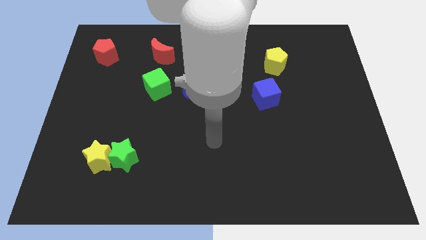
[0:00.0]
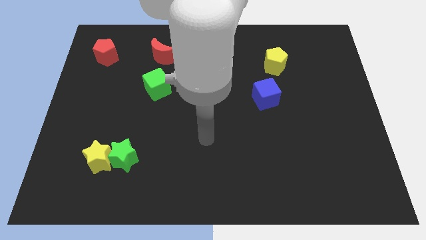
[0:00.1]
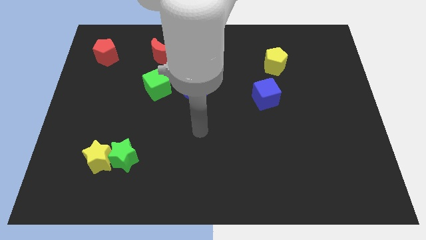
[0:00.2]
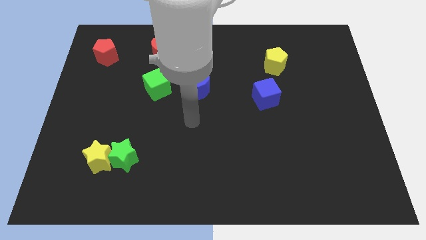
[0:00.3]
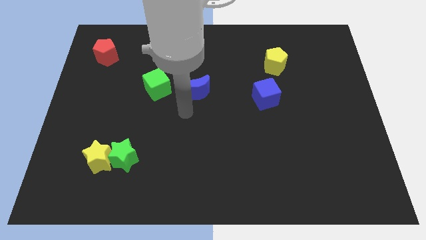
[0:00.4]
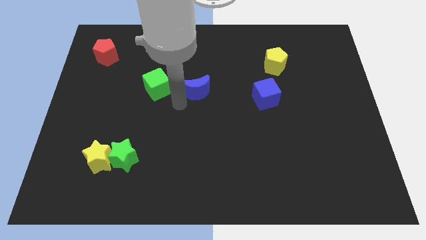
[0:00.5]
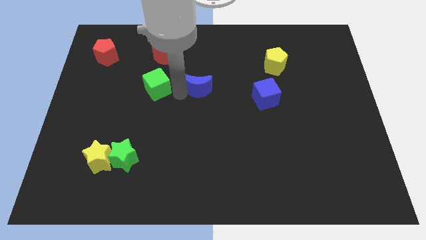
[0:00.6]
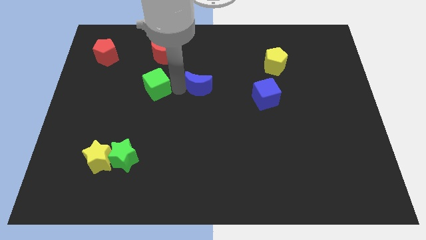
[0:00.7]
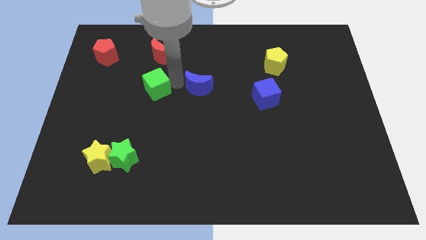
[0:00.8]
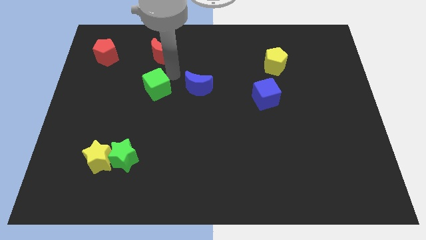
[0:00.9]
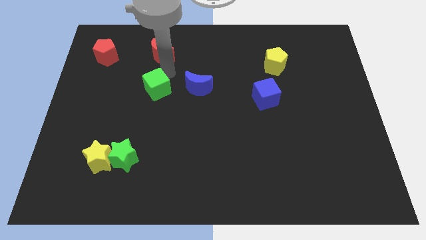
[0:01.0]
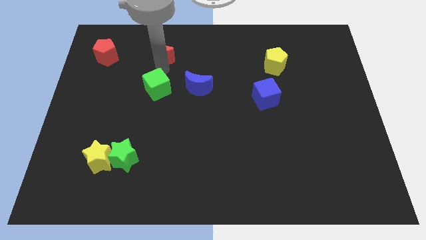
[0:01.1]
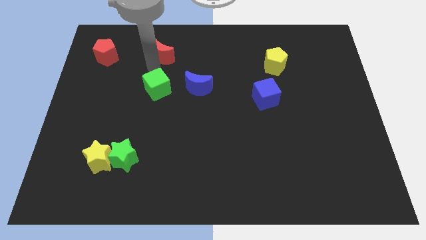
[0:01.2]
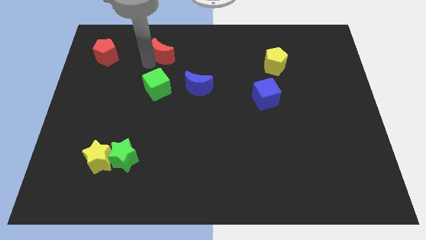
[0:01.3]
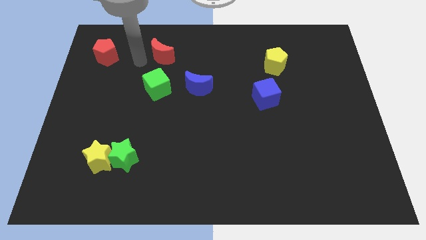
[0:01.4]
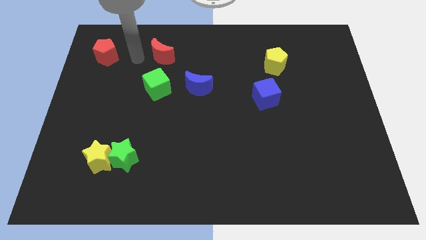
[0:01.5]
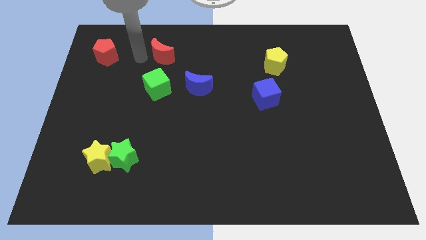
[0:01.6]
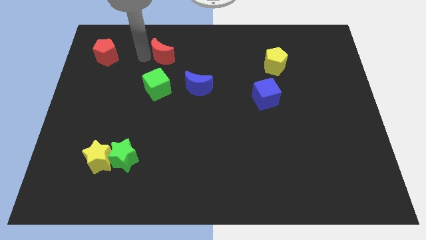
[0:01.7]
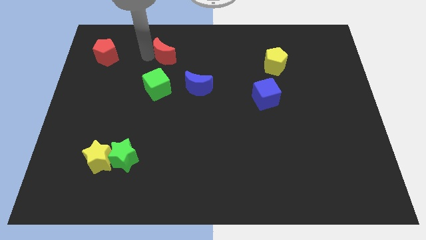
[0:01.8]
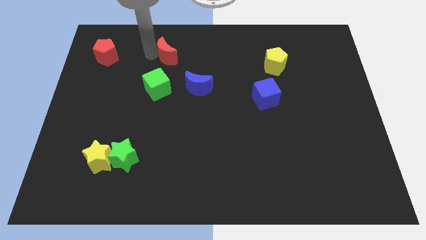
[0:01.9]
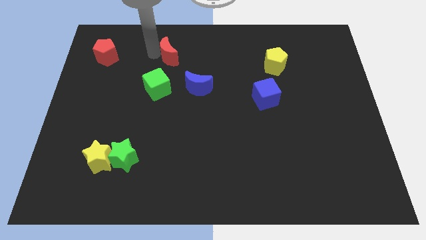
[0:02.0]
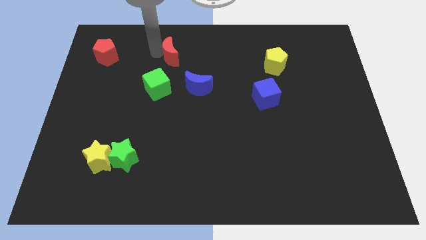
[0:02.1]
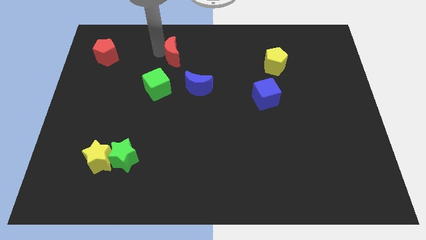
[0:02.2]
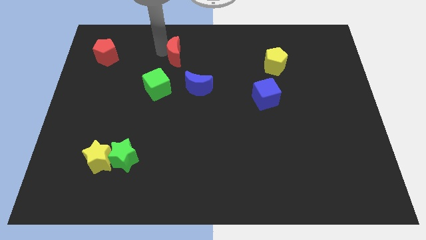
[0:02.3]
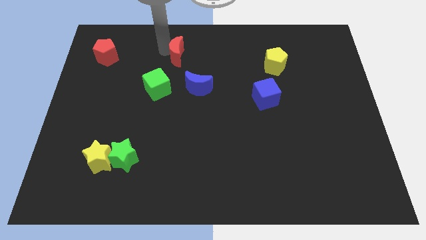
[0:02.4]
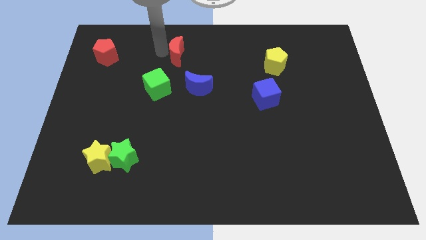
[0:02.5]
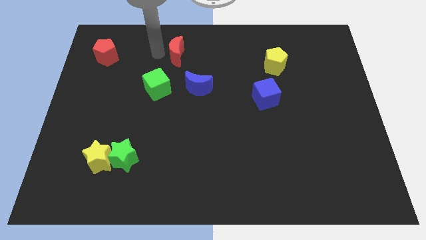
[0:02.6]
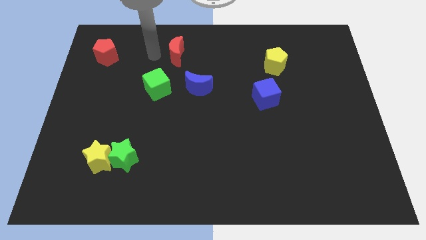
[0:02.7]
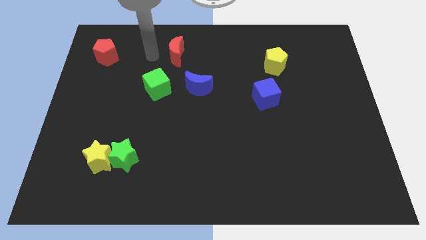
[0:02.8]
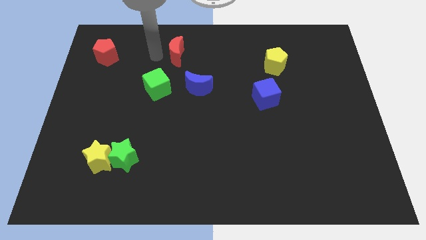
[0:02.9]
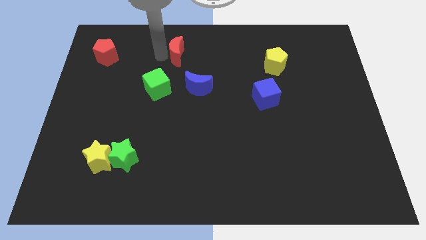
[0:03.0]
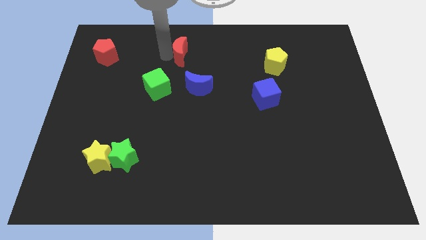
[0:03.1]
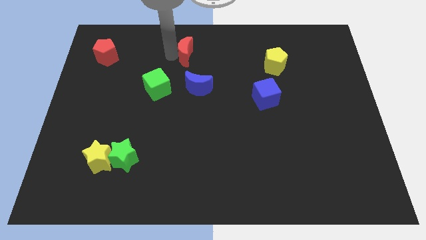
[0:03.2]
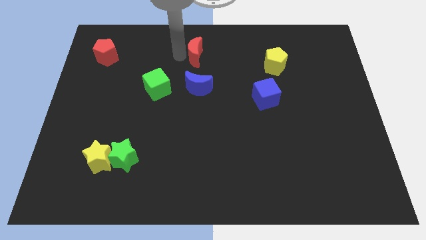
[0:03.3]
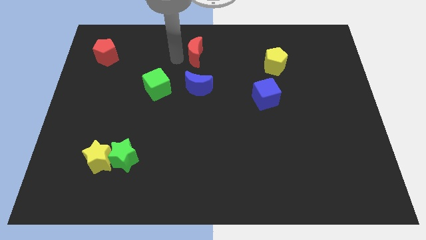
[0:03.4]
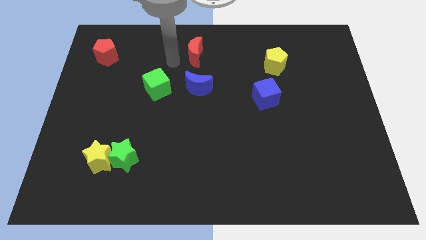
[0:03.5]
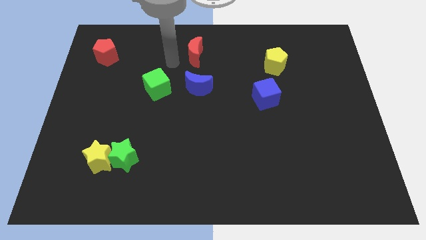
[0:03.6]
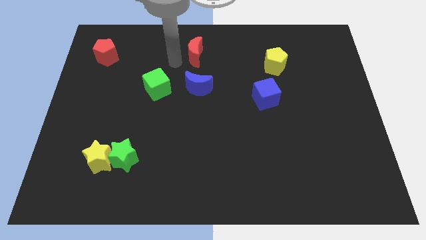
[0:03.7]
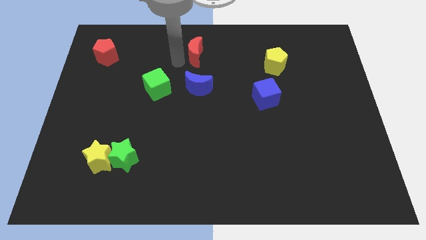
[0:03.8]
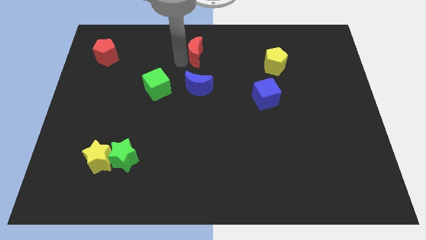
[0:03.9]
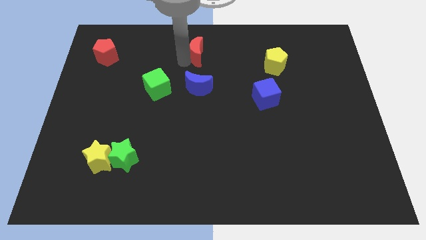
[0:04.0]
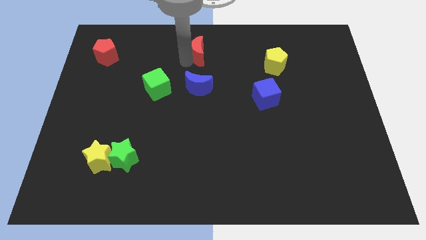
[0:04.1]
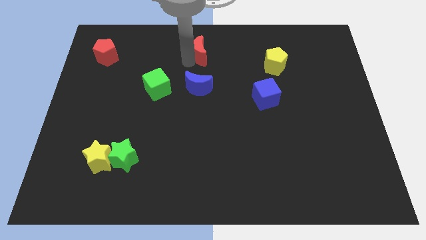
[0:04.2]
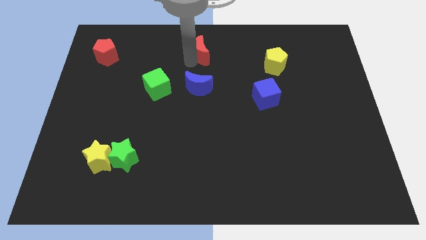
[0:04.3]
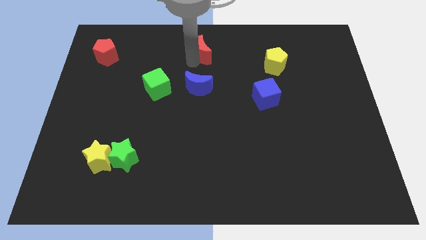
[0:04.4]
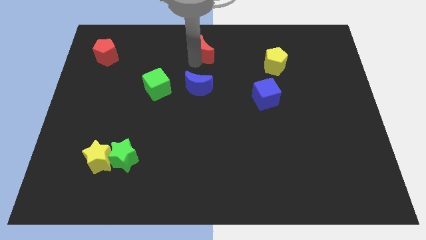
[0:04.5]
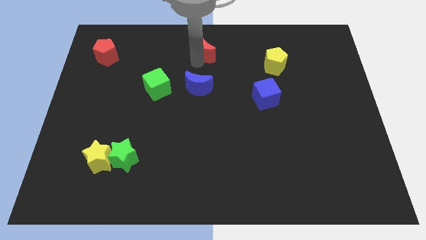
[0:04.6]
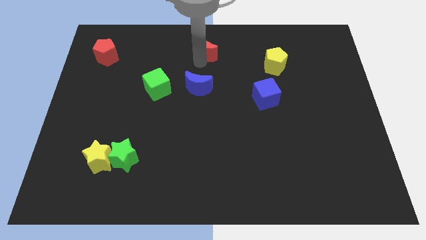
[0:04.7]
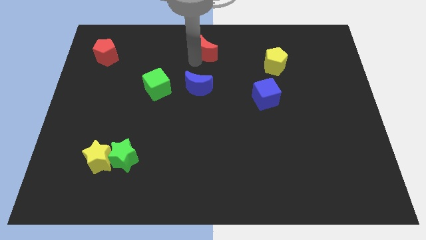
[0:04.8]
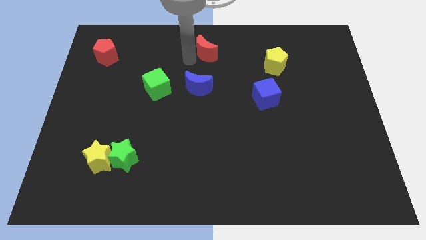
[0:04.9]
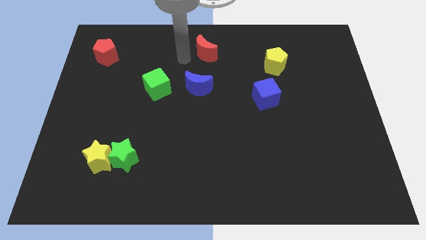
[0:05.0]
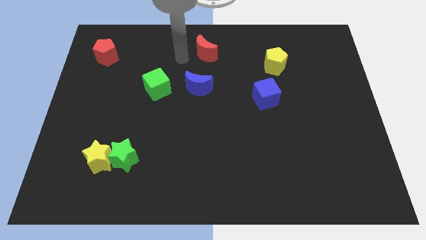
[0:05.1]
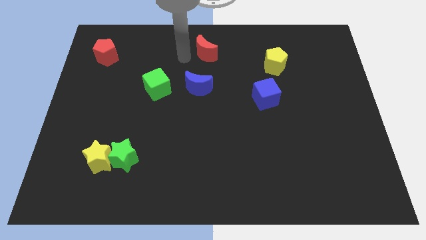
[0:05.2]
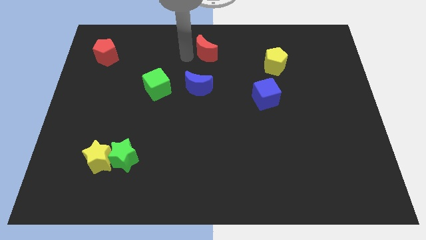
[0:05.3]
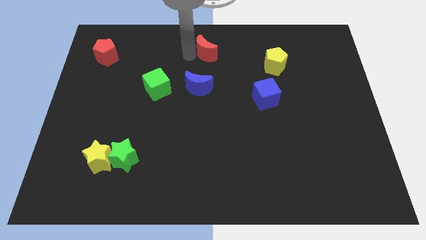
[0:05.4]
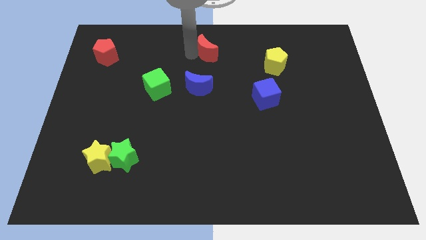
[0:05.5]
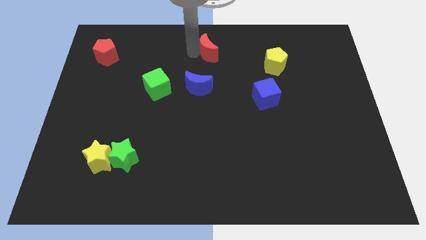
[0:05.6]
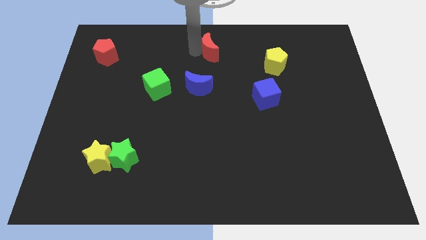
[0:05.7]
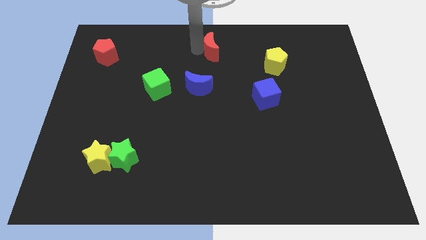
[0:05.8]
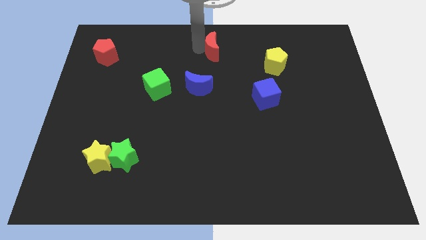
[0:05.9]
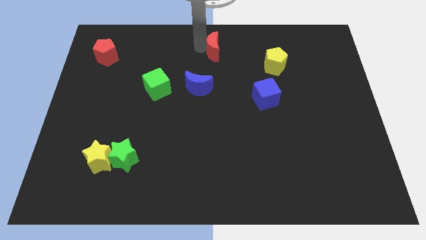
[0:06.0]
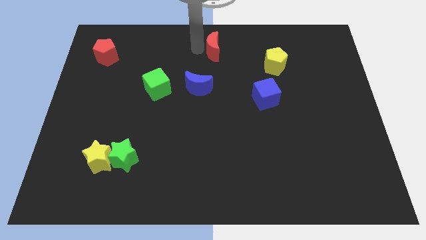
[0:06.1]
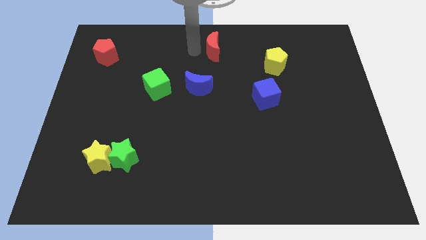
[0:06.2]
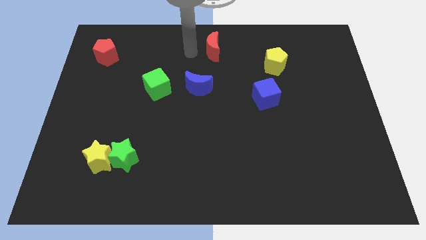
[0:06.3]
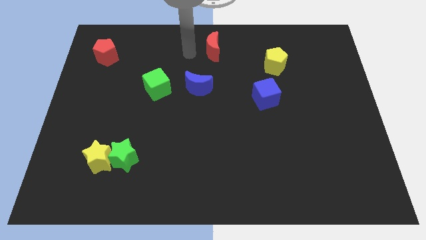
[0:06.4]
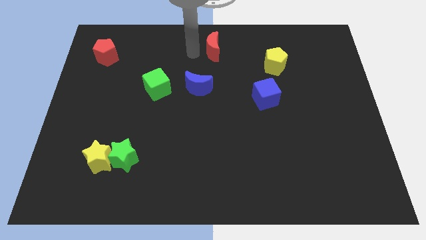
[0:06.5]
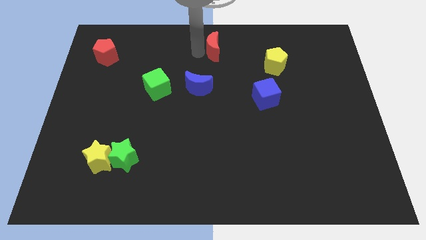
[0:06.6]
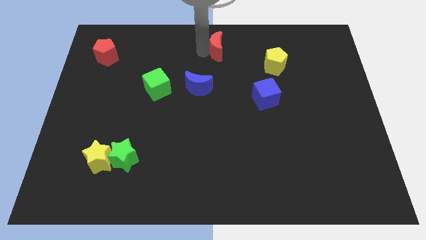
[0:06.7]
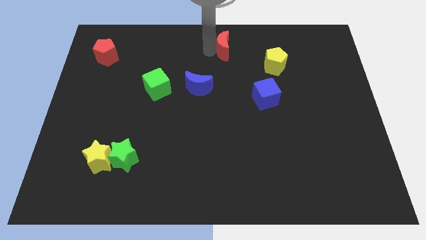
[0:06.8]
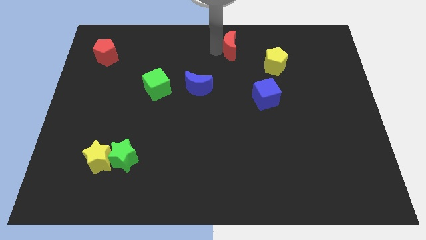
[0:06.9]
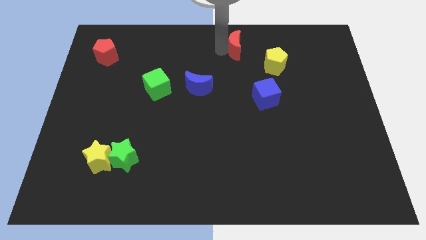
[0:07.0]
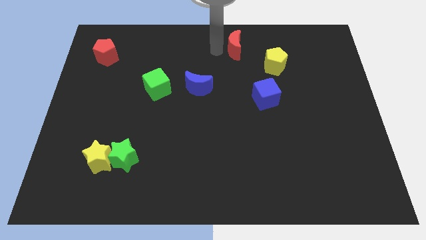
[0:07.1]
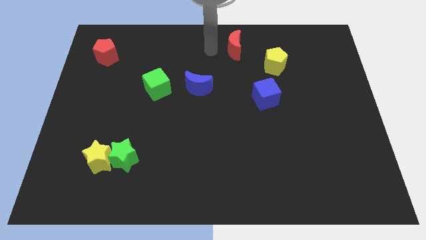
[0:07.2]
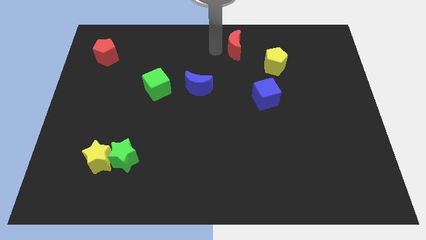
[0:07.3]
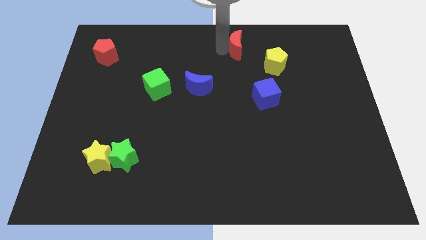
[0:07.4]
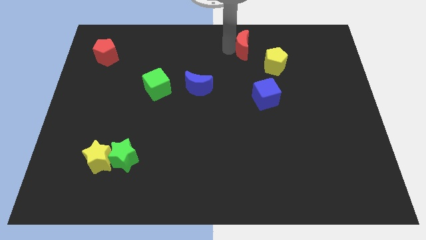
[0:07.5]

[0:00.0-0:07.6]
move the red moon to the right

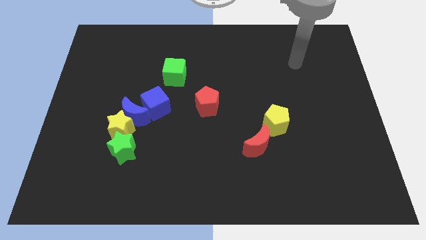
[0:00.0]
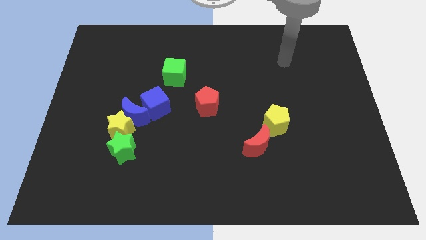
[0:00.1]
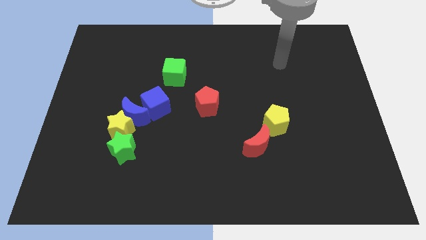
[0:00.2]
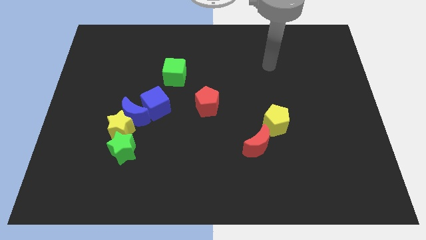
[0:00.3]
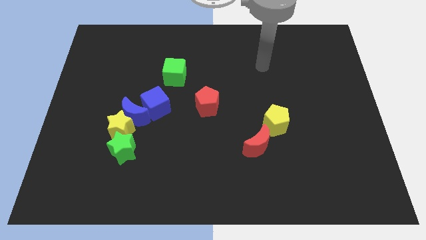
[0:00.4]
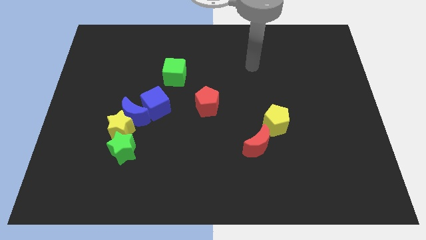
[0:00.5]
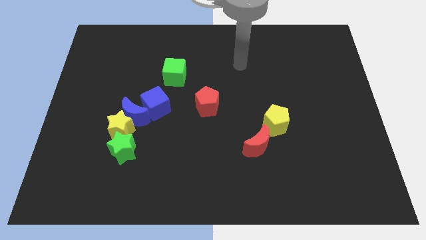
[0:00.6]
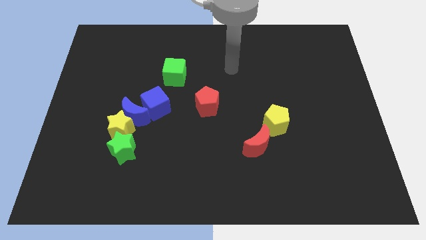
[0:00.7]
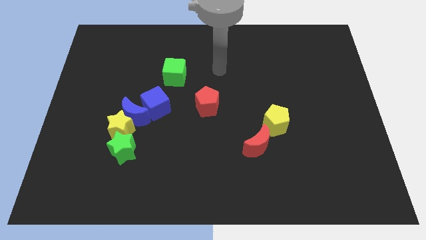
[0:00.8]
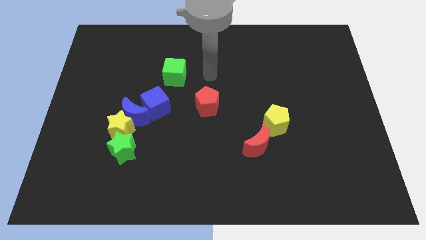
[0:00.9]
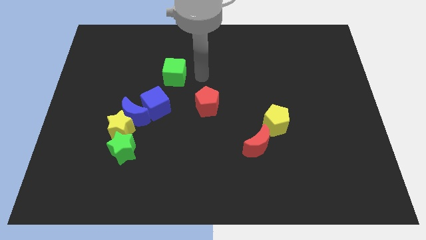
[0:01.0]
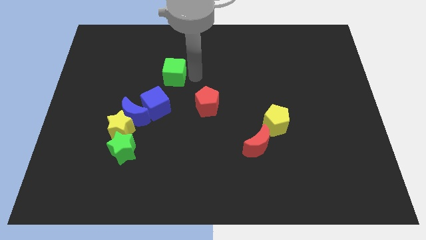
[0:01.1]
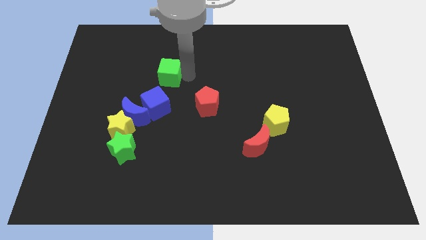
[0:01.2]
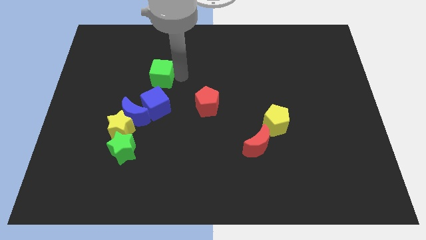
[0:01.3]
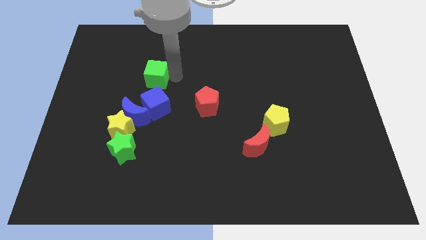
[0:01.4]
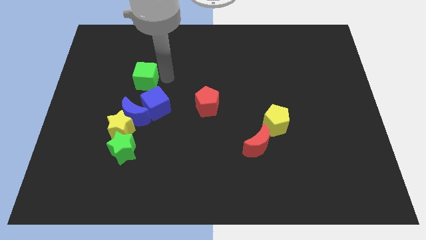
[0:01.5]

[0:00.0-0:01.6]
push the green cube to the left a bit
